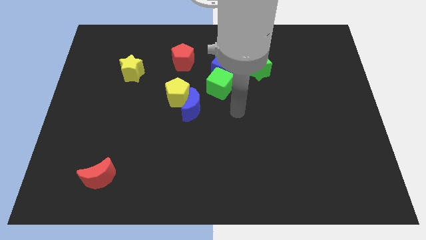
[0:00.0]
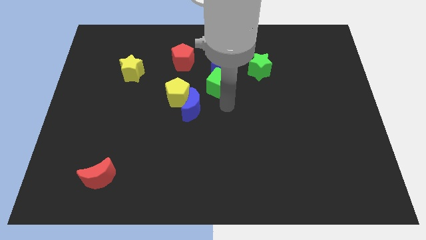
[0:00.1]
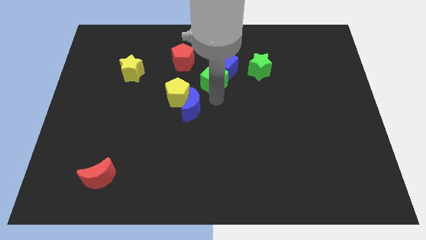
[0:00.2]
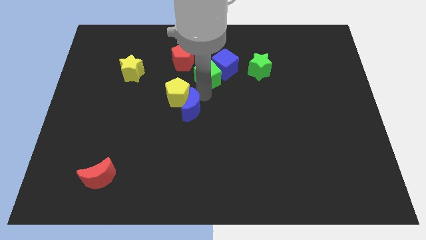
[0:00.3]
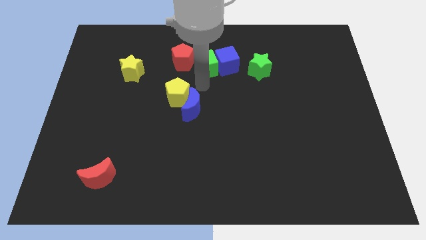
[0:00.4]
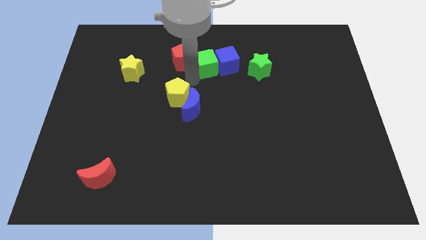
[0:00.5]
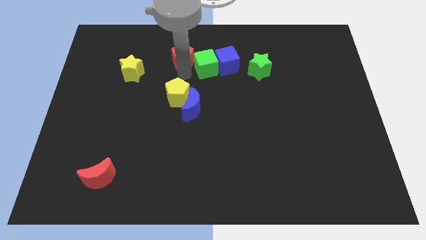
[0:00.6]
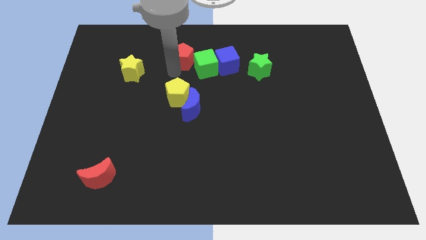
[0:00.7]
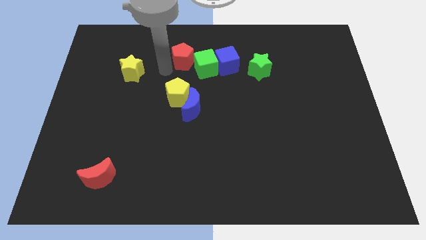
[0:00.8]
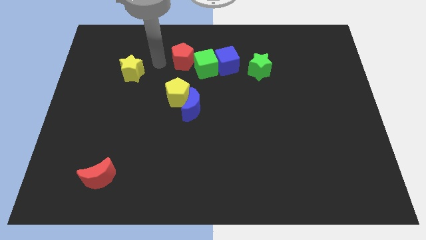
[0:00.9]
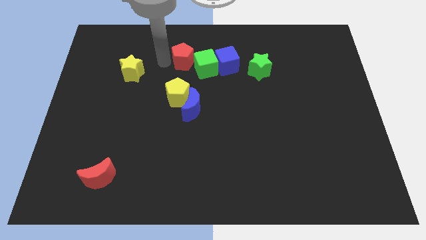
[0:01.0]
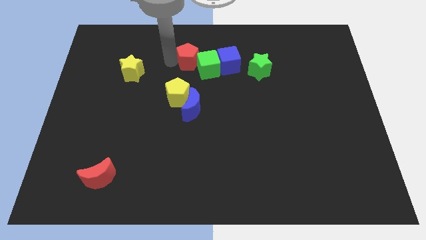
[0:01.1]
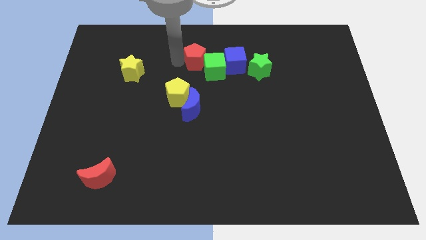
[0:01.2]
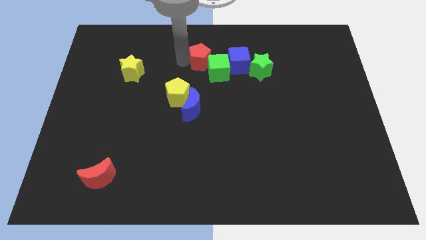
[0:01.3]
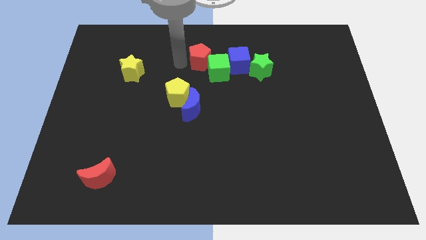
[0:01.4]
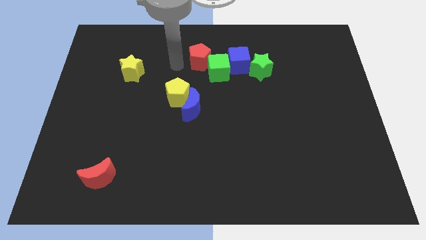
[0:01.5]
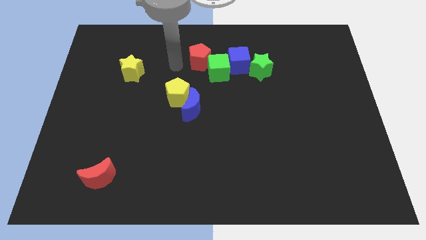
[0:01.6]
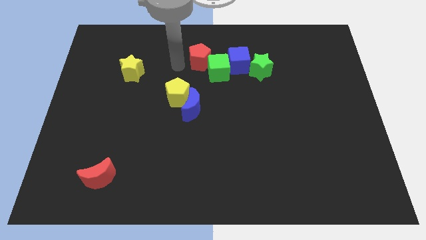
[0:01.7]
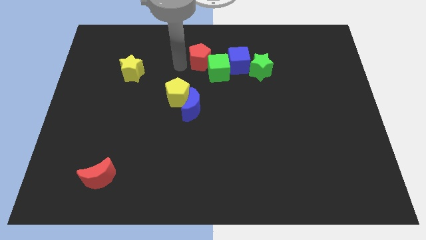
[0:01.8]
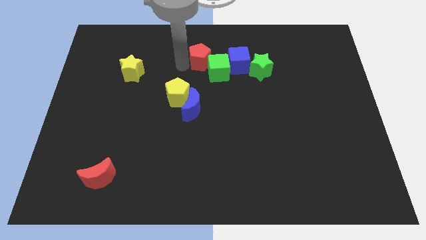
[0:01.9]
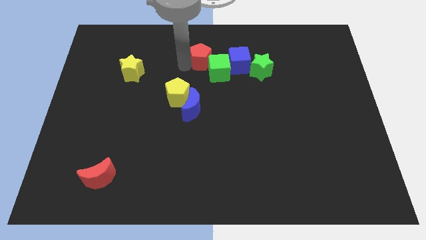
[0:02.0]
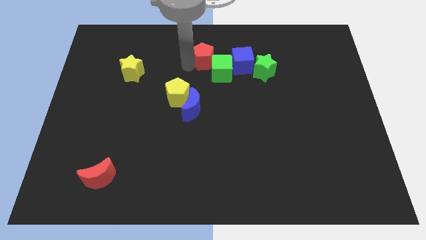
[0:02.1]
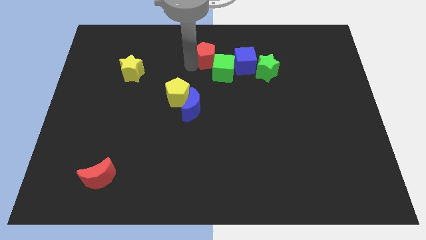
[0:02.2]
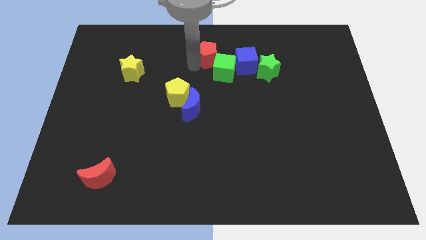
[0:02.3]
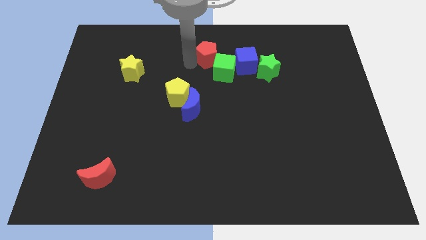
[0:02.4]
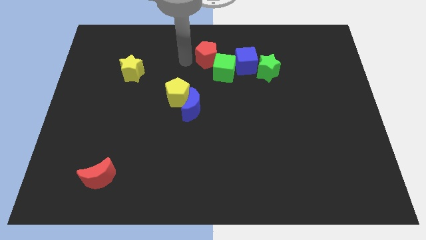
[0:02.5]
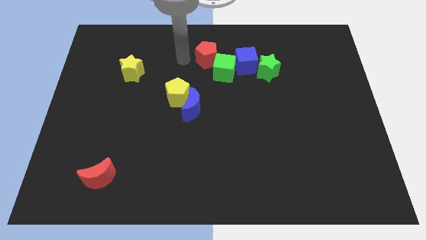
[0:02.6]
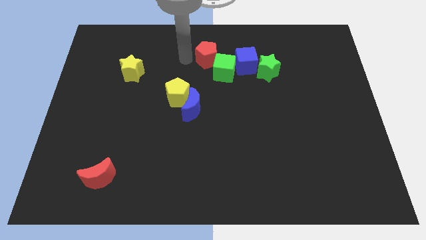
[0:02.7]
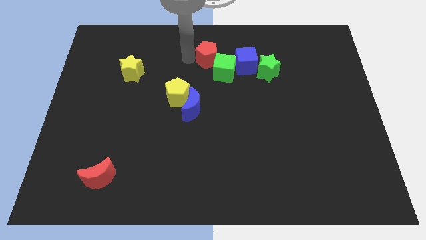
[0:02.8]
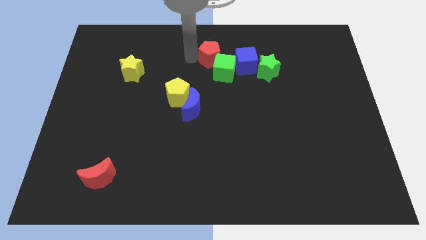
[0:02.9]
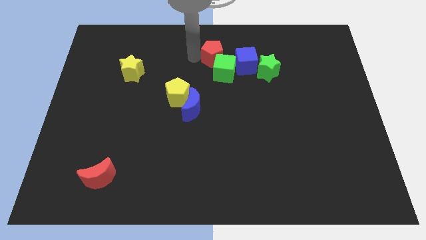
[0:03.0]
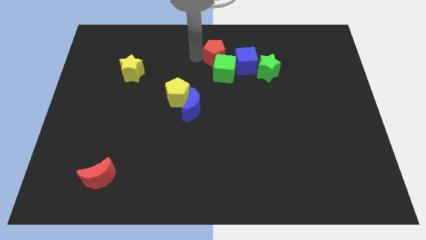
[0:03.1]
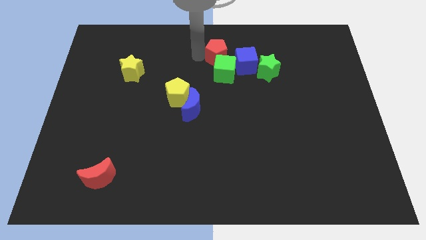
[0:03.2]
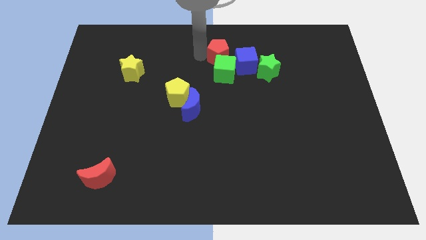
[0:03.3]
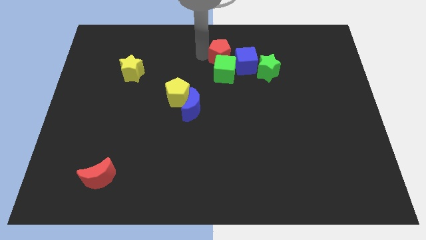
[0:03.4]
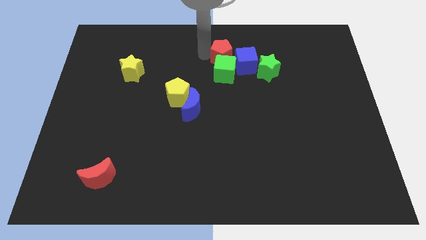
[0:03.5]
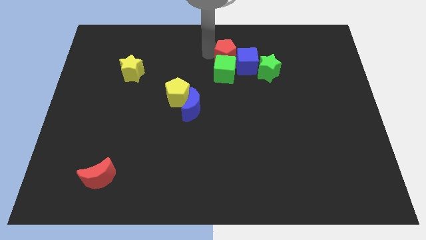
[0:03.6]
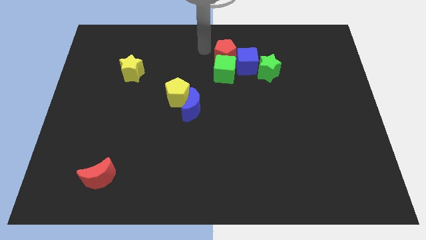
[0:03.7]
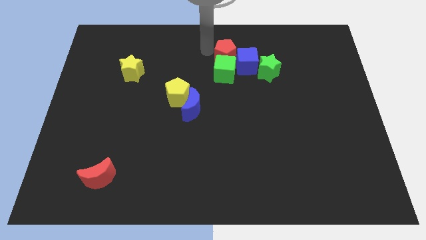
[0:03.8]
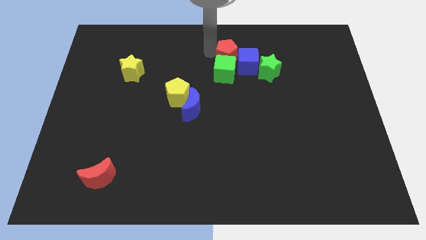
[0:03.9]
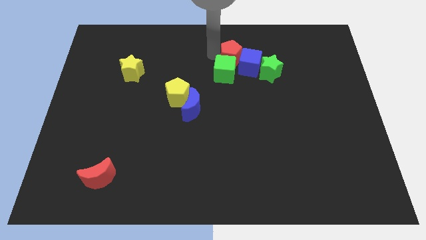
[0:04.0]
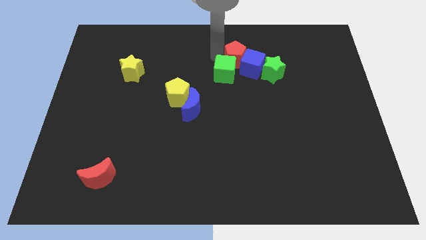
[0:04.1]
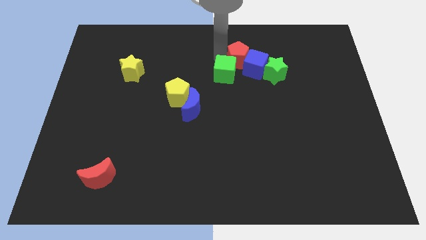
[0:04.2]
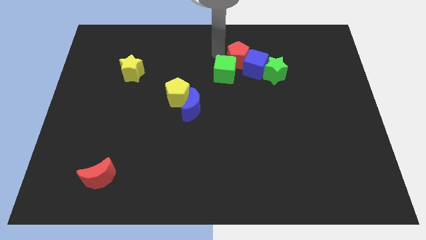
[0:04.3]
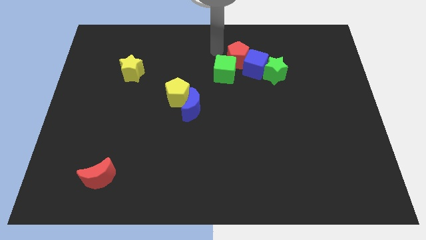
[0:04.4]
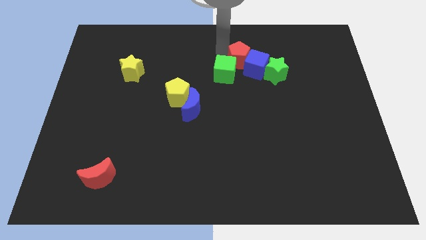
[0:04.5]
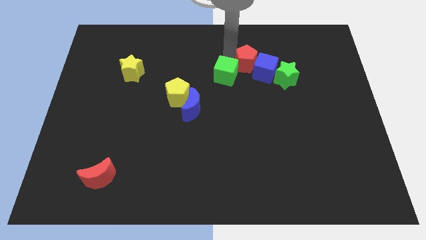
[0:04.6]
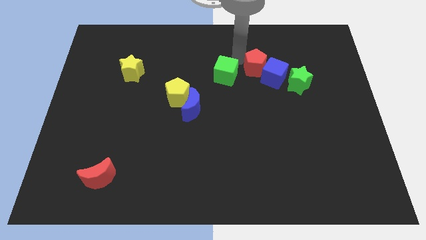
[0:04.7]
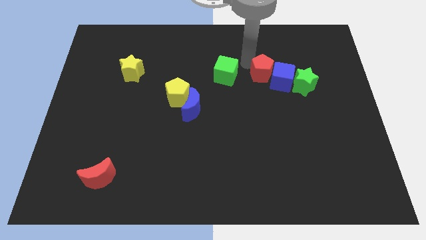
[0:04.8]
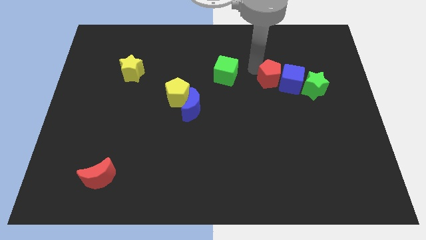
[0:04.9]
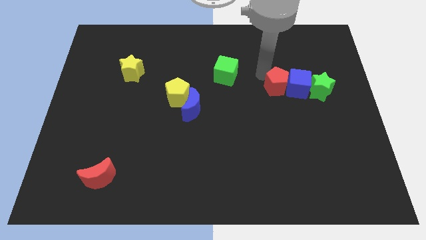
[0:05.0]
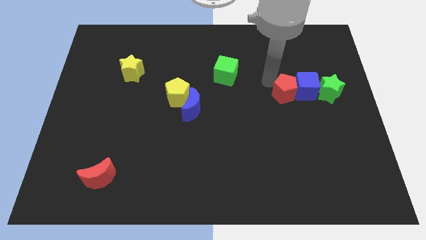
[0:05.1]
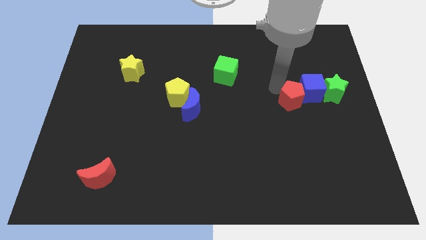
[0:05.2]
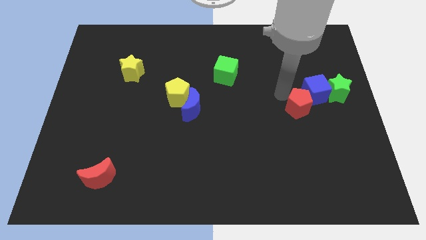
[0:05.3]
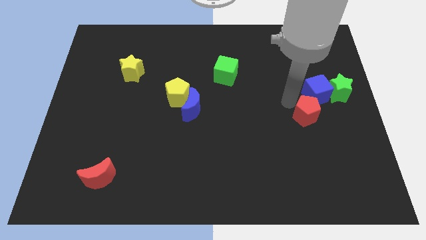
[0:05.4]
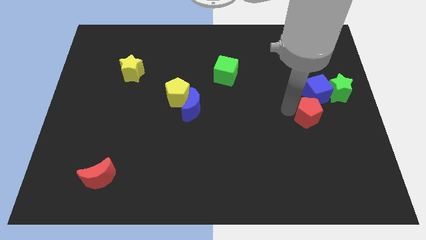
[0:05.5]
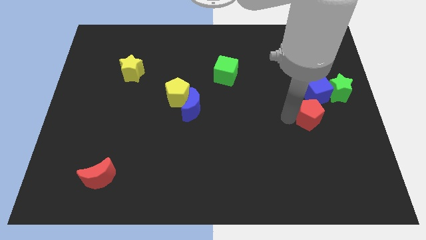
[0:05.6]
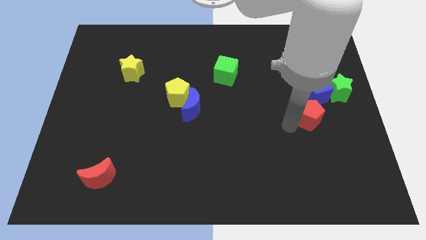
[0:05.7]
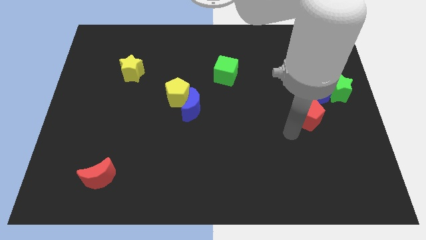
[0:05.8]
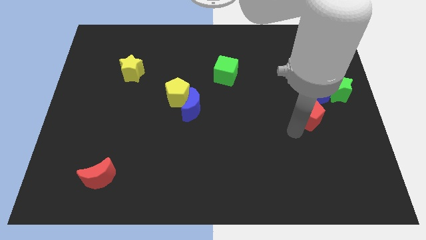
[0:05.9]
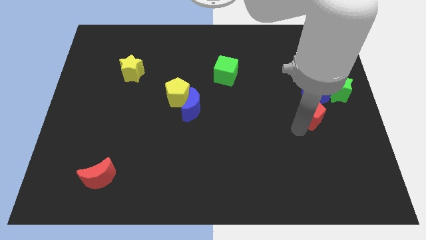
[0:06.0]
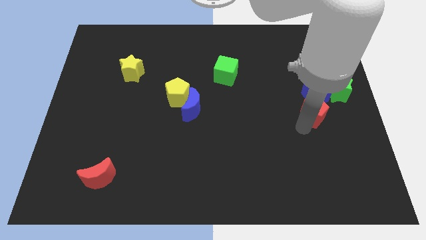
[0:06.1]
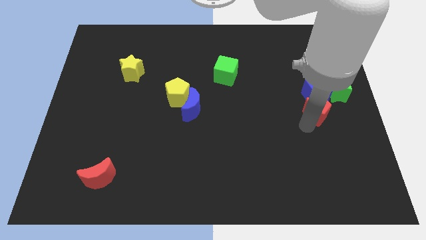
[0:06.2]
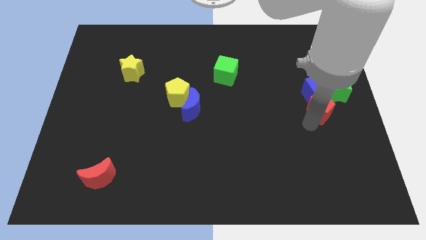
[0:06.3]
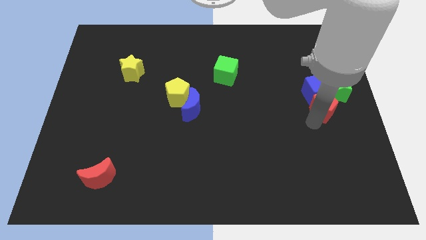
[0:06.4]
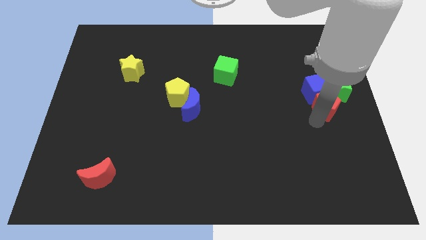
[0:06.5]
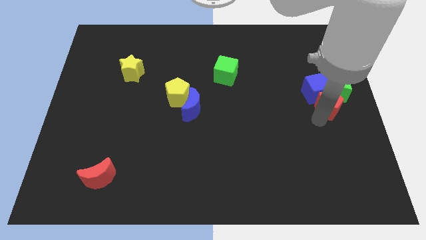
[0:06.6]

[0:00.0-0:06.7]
put the red pentagon next to the green star

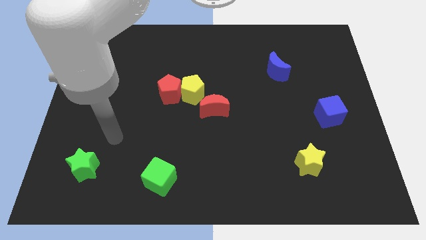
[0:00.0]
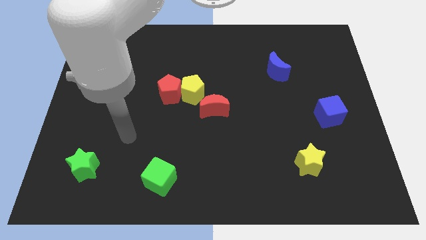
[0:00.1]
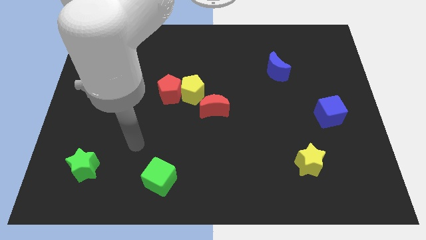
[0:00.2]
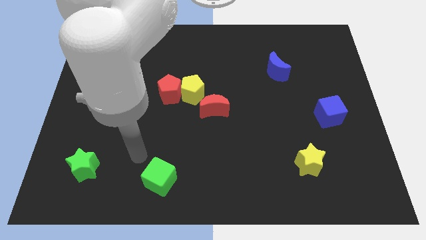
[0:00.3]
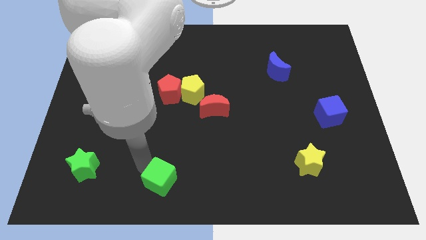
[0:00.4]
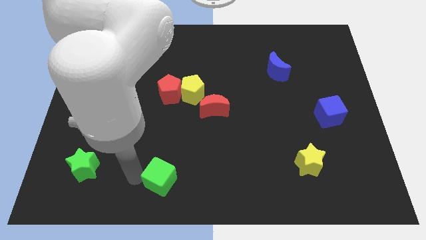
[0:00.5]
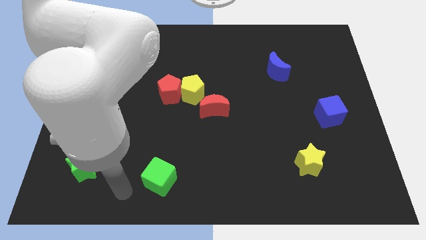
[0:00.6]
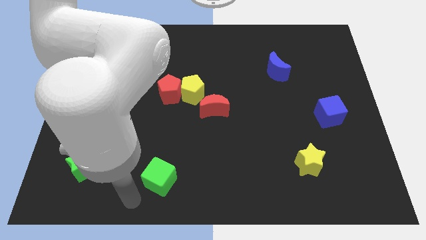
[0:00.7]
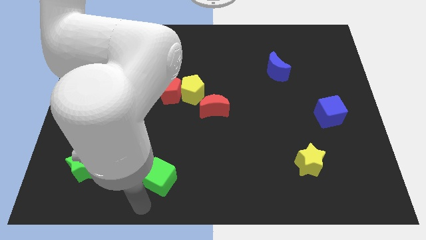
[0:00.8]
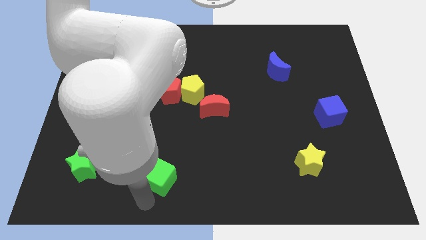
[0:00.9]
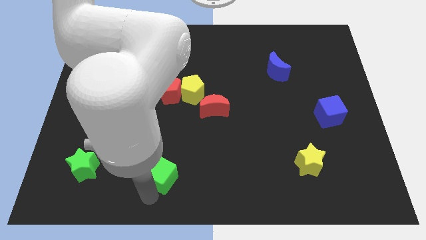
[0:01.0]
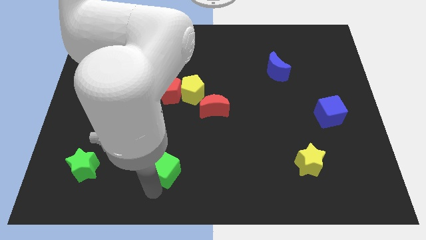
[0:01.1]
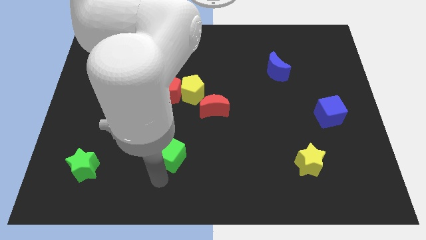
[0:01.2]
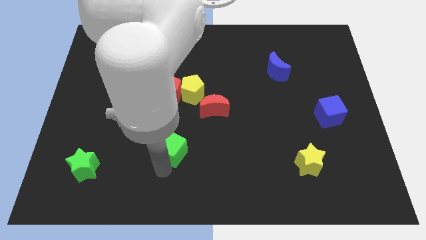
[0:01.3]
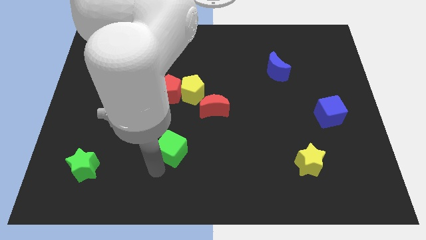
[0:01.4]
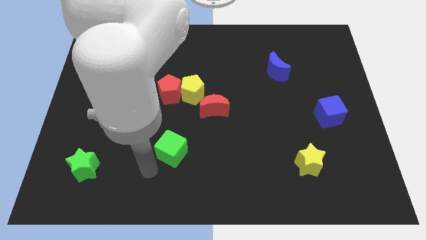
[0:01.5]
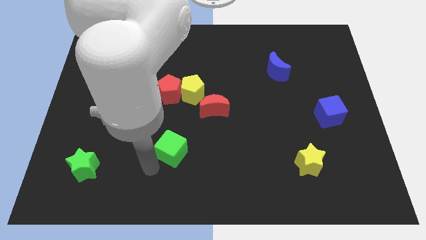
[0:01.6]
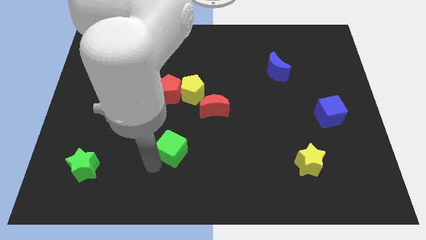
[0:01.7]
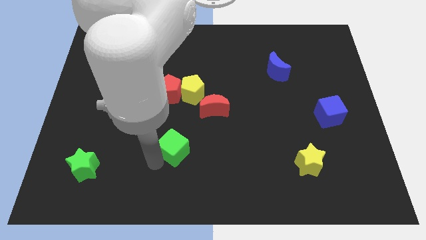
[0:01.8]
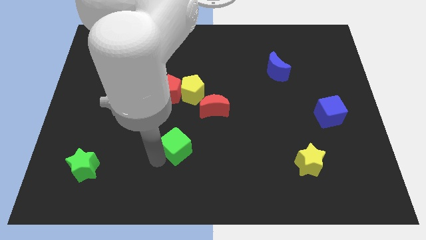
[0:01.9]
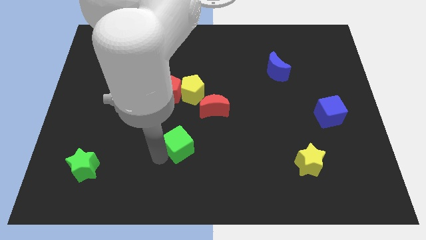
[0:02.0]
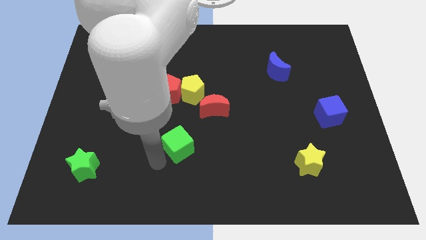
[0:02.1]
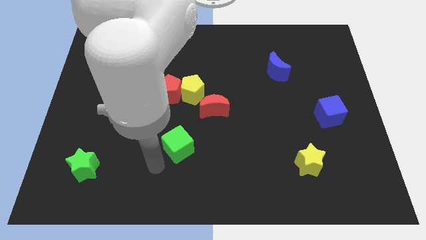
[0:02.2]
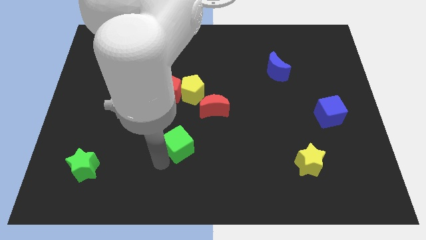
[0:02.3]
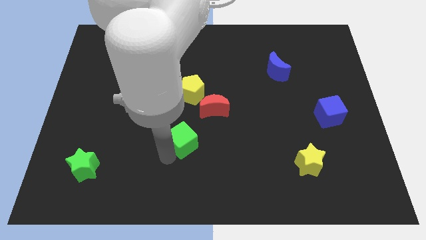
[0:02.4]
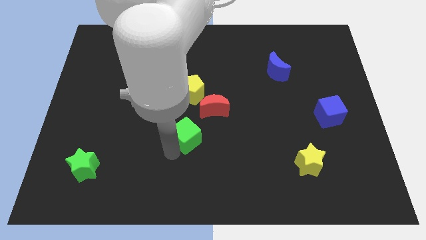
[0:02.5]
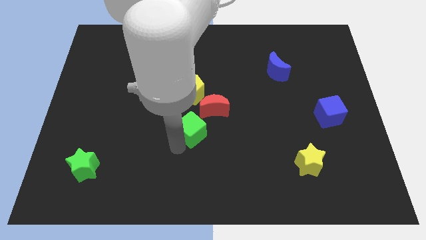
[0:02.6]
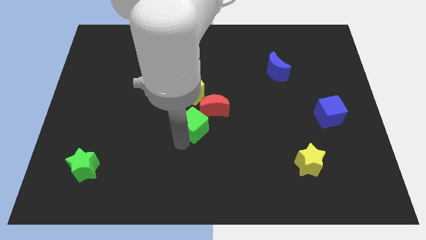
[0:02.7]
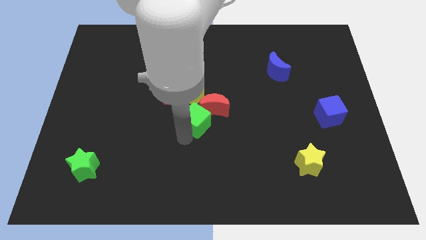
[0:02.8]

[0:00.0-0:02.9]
push the green cube close to the red moon
